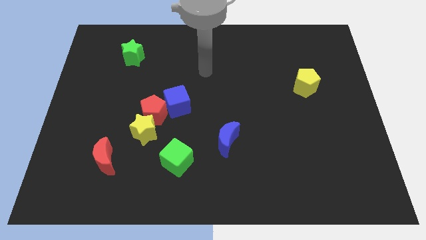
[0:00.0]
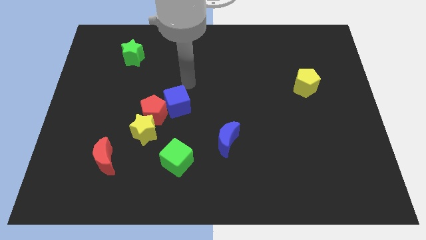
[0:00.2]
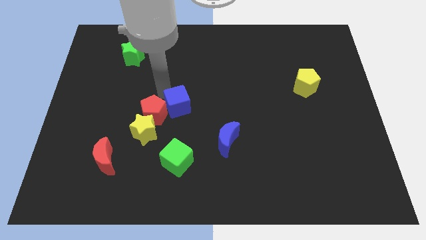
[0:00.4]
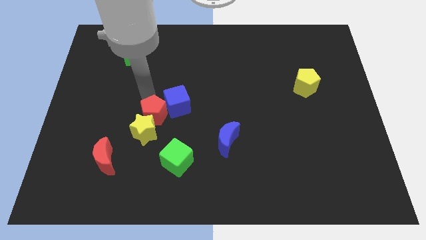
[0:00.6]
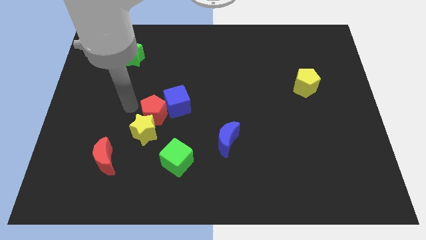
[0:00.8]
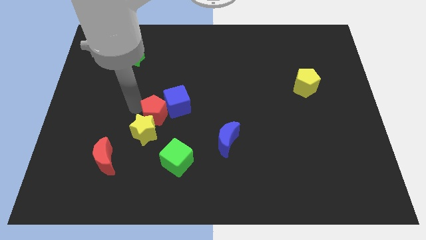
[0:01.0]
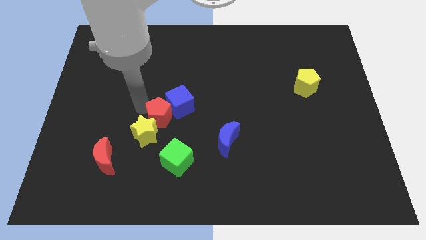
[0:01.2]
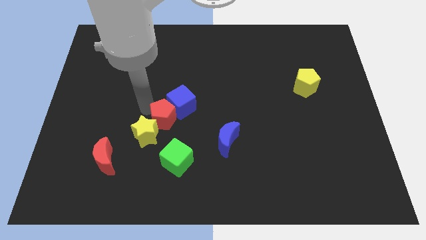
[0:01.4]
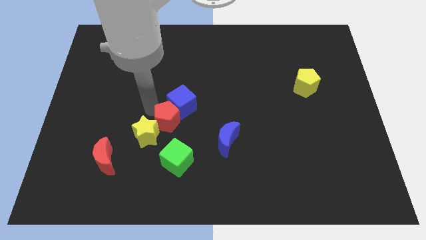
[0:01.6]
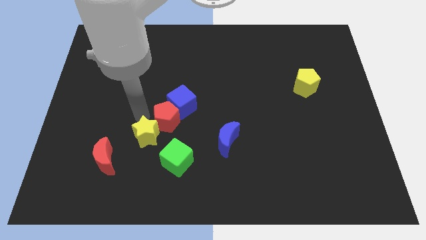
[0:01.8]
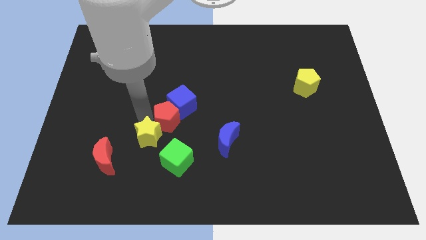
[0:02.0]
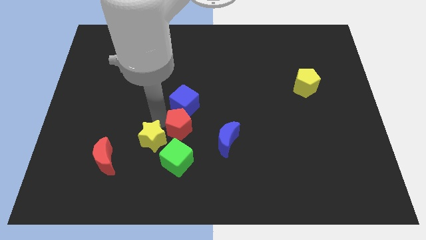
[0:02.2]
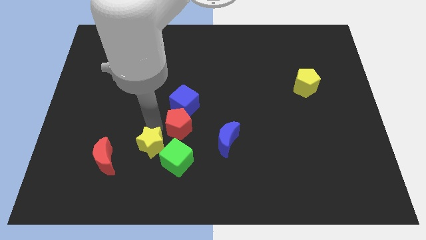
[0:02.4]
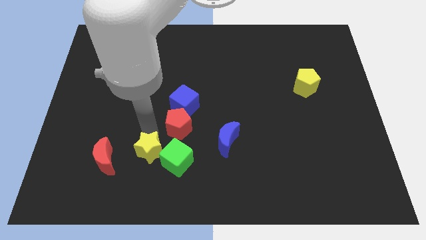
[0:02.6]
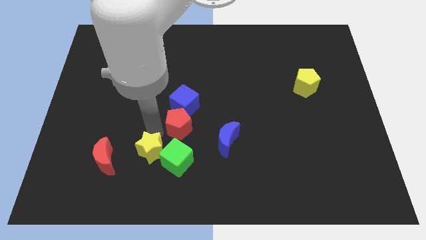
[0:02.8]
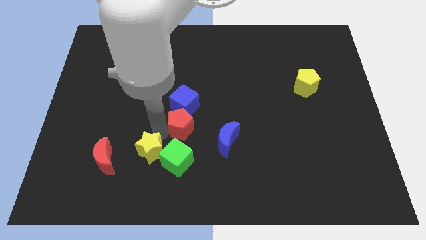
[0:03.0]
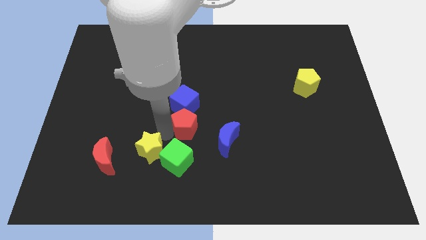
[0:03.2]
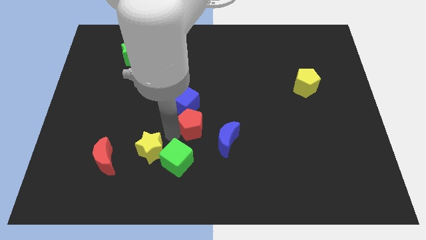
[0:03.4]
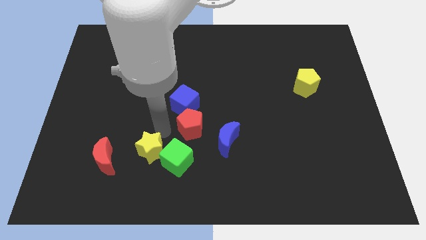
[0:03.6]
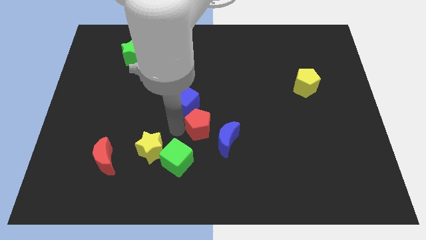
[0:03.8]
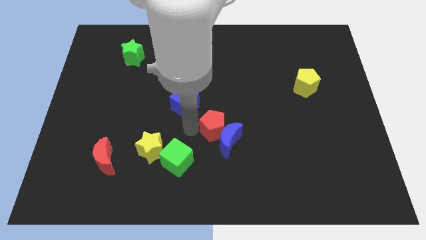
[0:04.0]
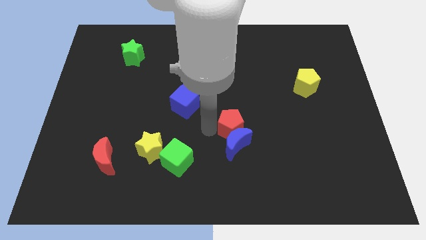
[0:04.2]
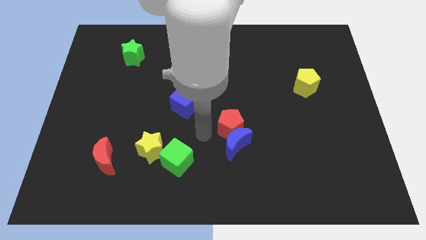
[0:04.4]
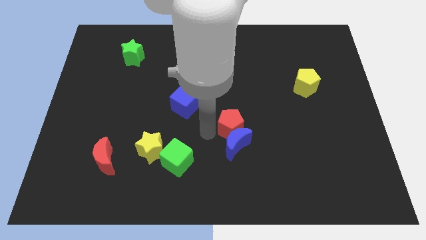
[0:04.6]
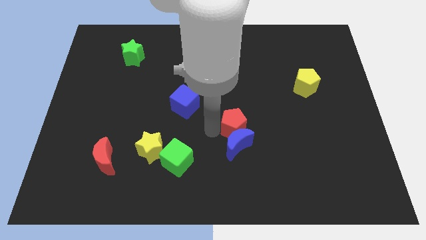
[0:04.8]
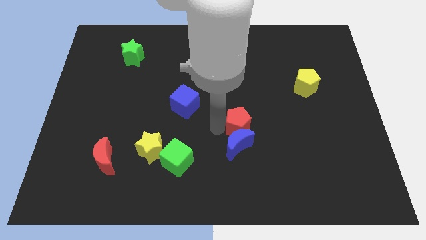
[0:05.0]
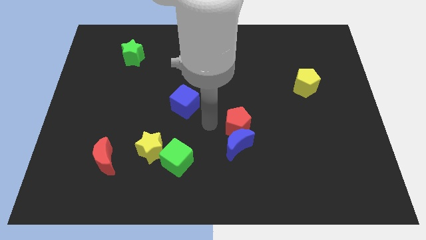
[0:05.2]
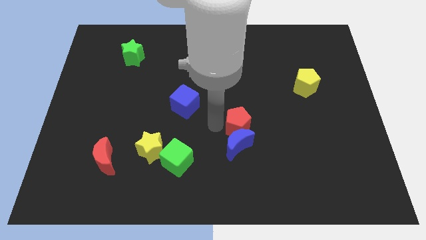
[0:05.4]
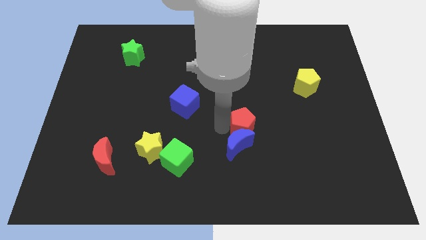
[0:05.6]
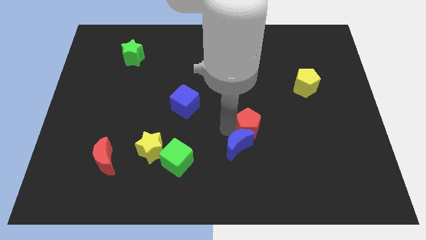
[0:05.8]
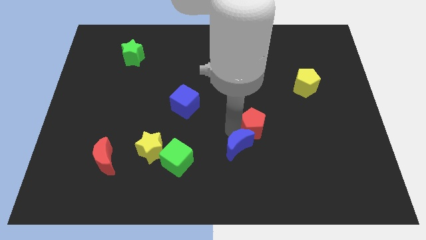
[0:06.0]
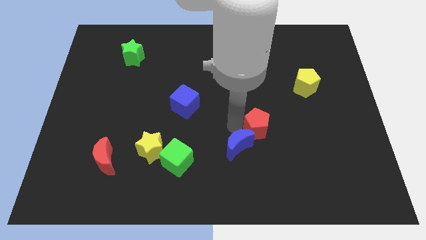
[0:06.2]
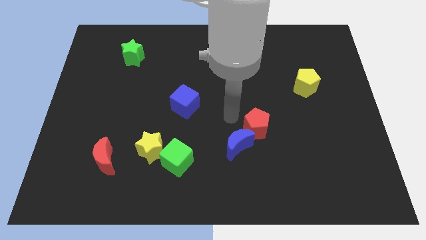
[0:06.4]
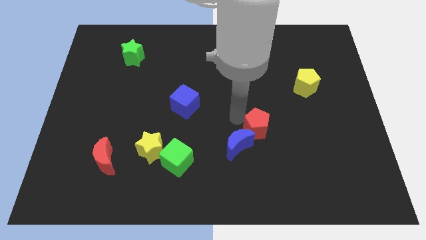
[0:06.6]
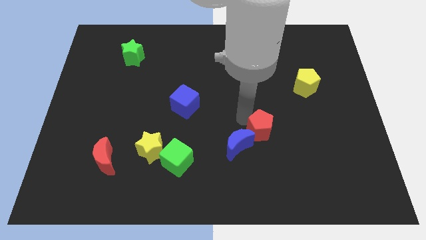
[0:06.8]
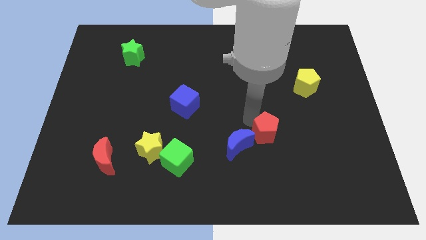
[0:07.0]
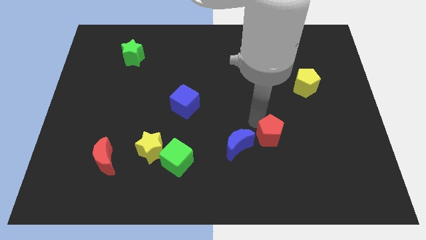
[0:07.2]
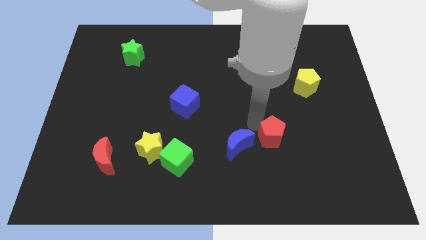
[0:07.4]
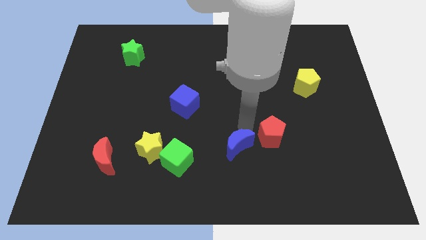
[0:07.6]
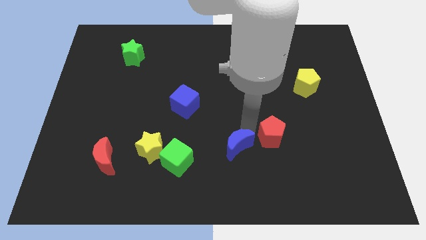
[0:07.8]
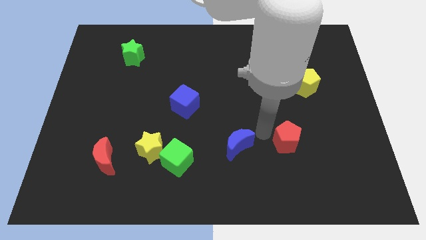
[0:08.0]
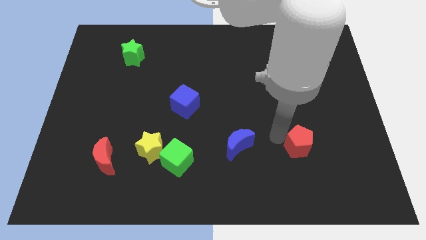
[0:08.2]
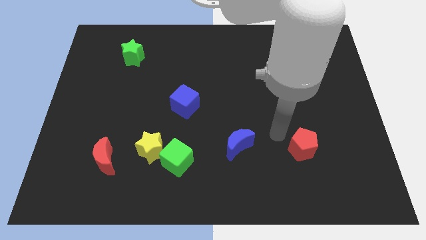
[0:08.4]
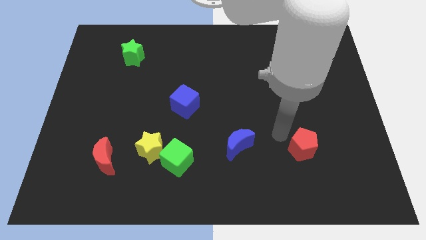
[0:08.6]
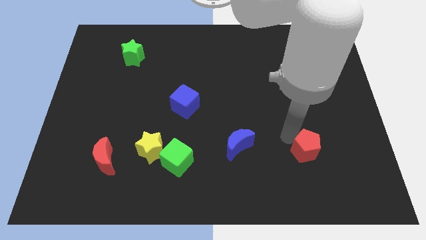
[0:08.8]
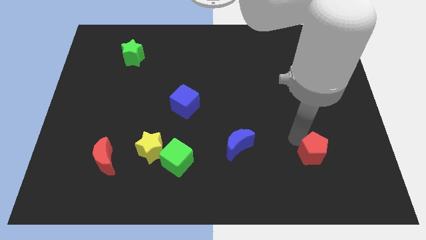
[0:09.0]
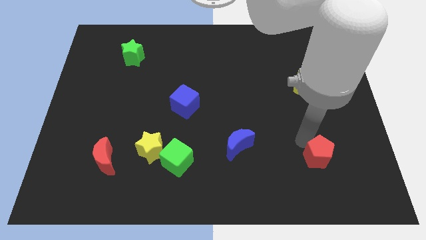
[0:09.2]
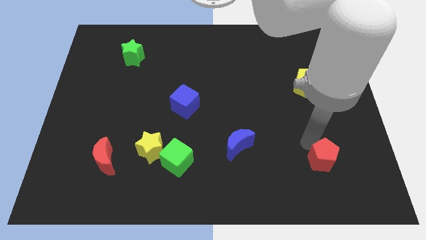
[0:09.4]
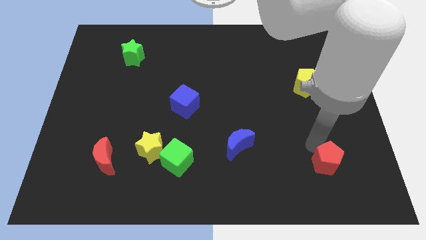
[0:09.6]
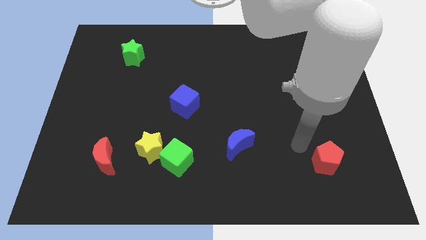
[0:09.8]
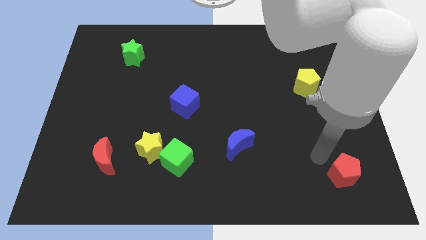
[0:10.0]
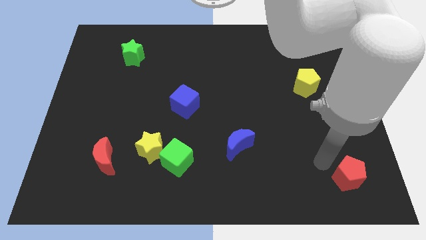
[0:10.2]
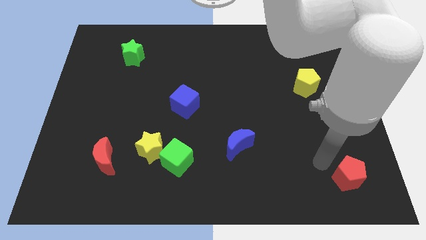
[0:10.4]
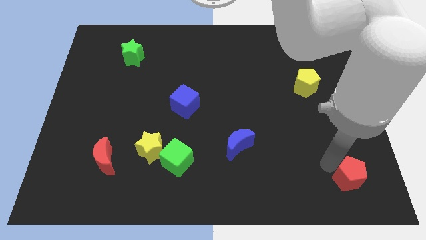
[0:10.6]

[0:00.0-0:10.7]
slide the red pentagon to the bottom right of the board

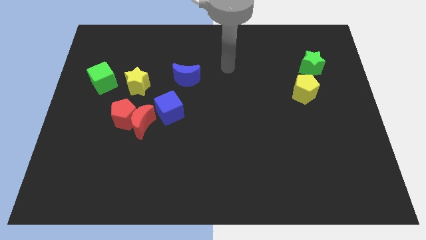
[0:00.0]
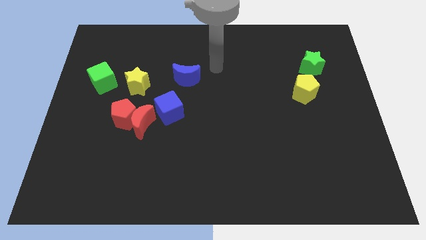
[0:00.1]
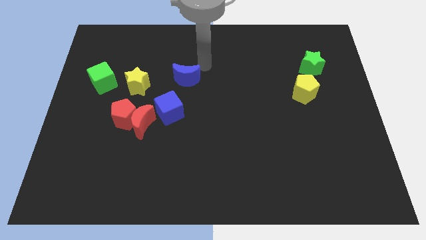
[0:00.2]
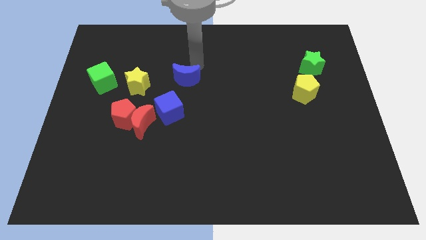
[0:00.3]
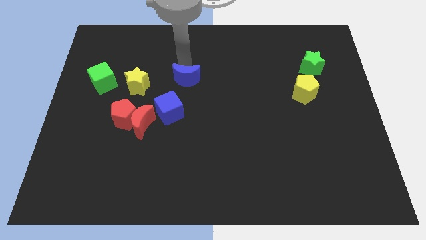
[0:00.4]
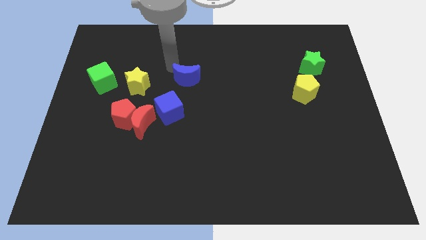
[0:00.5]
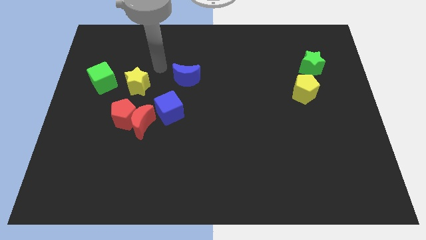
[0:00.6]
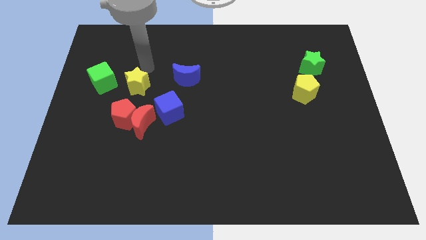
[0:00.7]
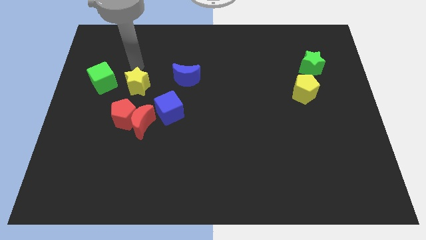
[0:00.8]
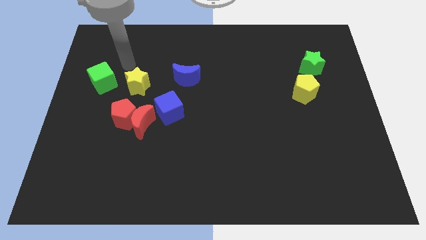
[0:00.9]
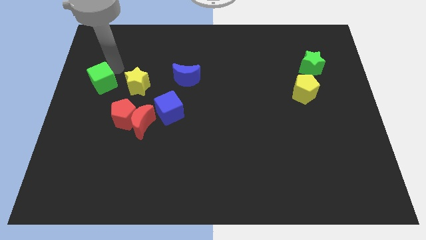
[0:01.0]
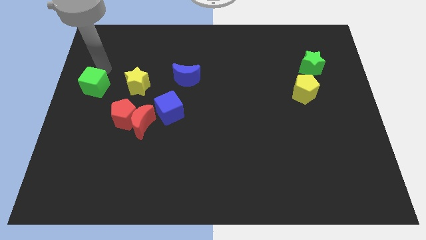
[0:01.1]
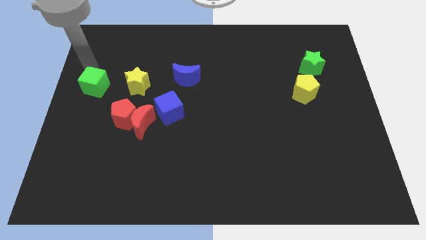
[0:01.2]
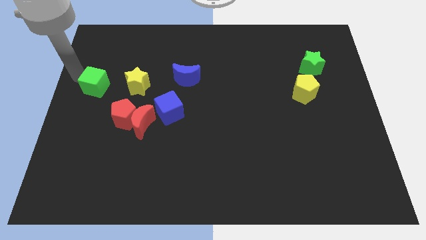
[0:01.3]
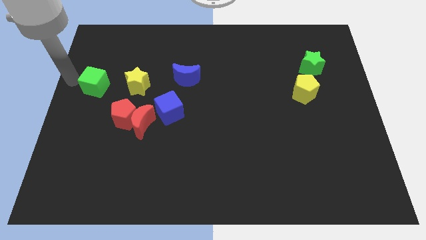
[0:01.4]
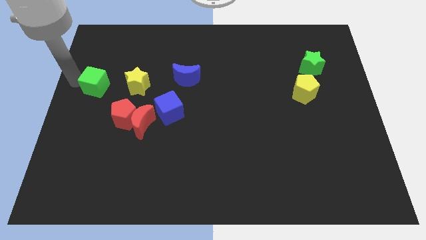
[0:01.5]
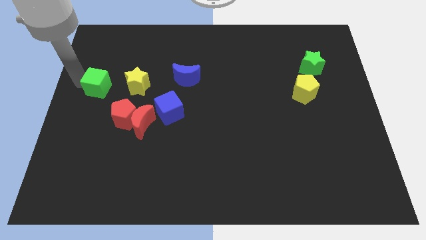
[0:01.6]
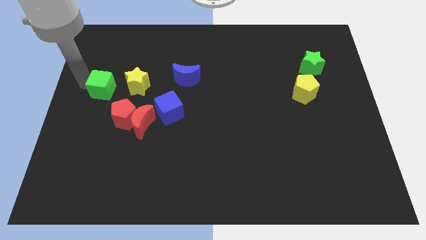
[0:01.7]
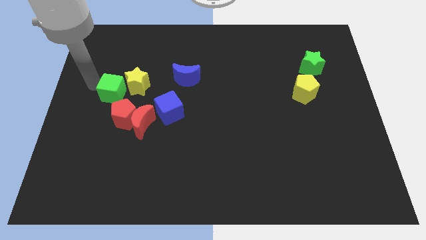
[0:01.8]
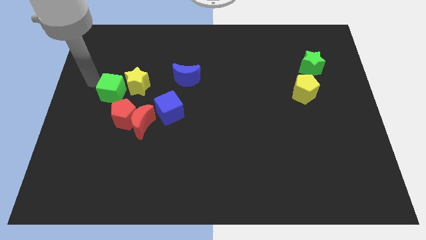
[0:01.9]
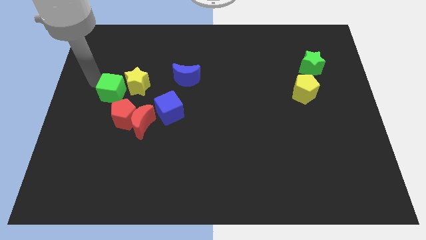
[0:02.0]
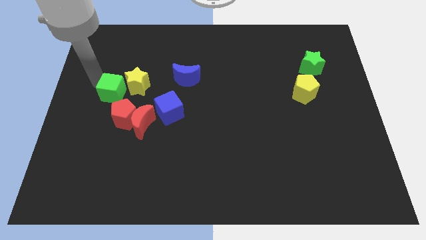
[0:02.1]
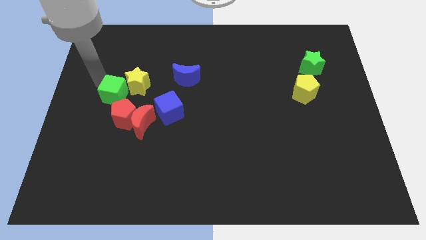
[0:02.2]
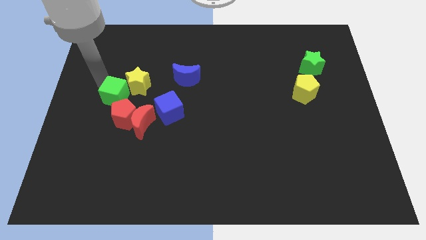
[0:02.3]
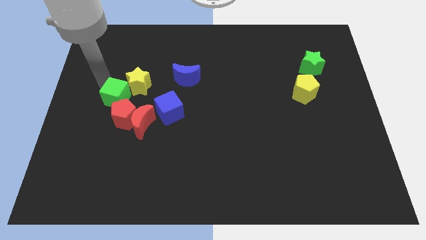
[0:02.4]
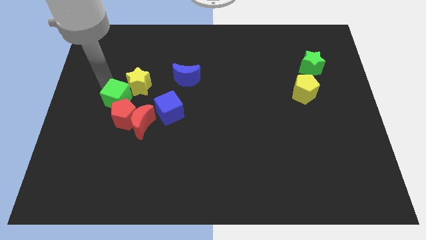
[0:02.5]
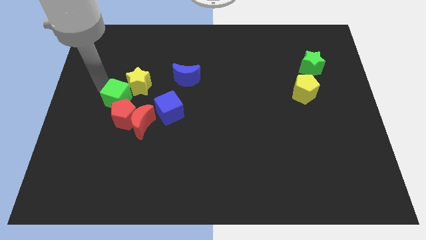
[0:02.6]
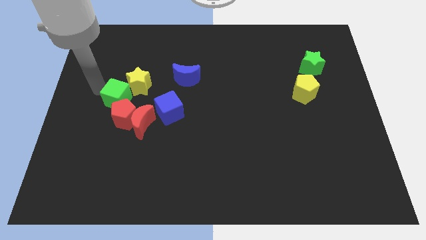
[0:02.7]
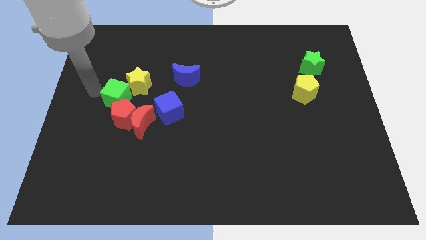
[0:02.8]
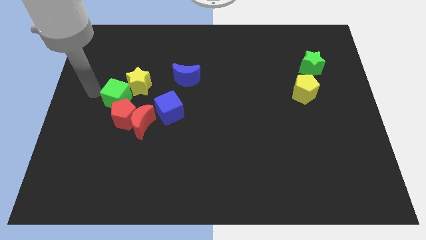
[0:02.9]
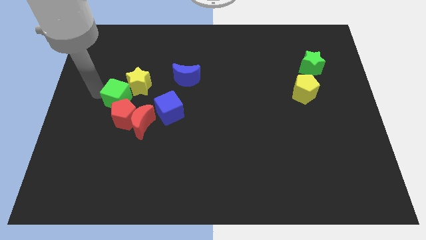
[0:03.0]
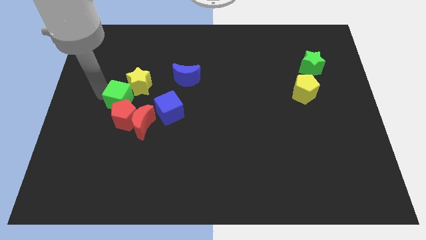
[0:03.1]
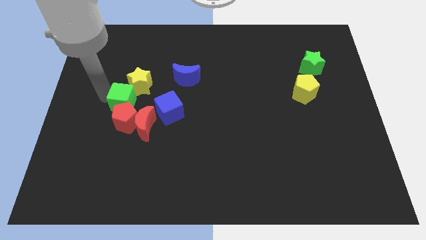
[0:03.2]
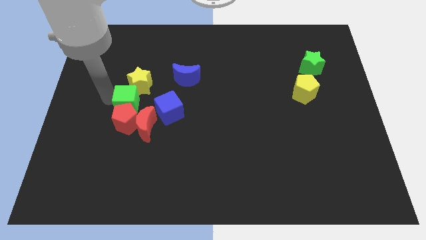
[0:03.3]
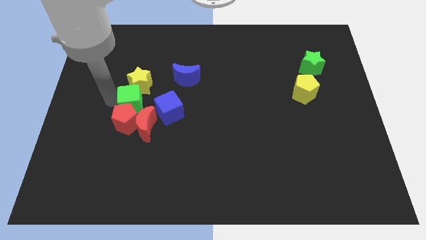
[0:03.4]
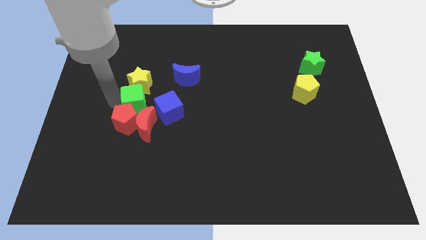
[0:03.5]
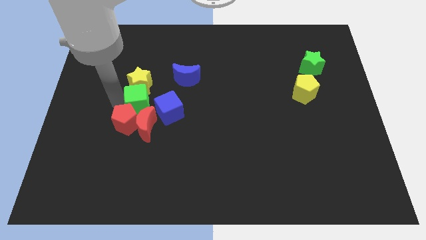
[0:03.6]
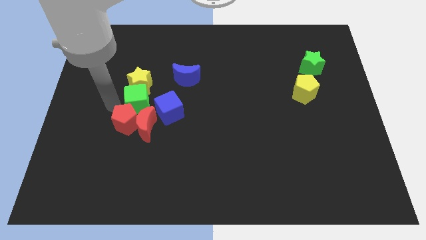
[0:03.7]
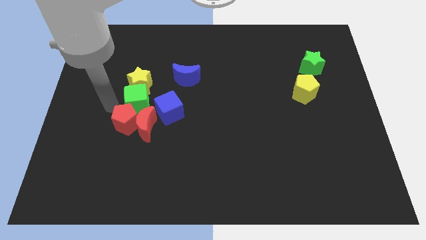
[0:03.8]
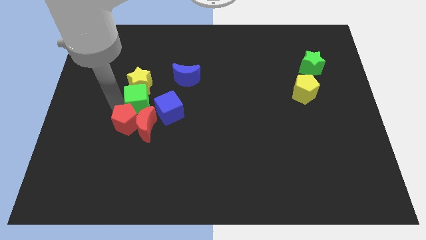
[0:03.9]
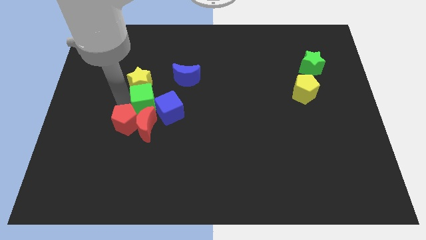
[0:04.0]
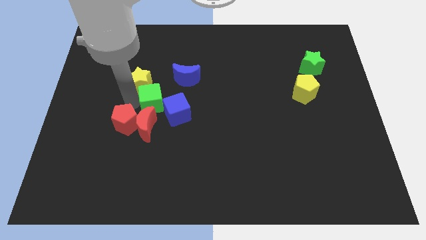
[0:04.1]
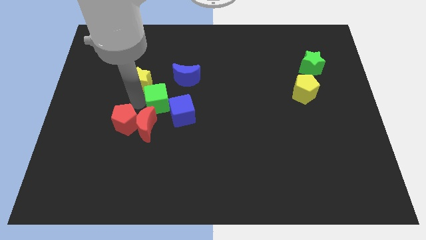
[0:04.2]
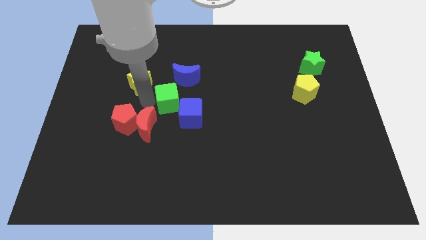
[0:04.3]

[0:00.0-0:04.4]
put the green cube to the center
